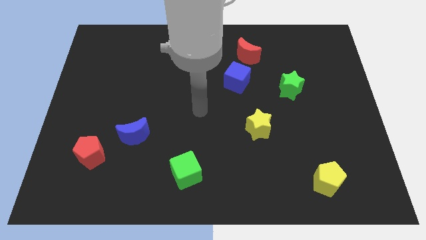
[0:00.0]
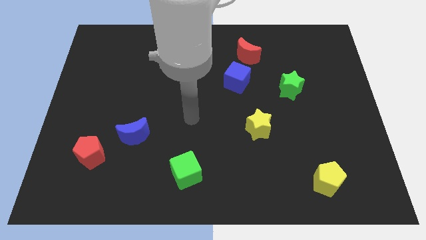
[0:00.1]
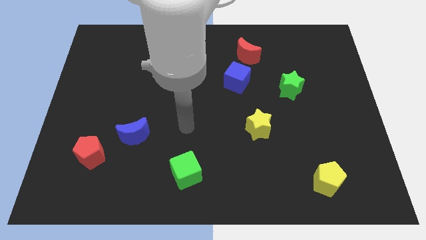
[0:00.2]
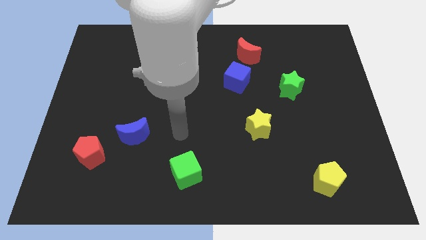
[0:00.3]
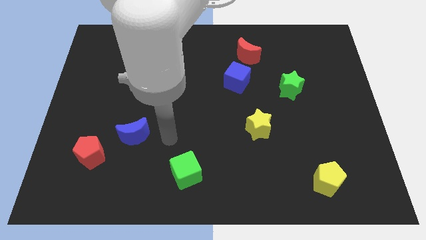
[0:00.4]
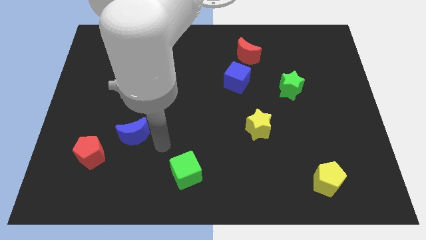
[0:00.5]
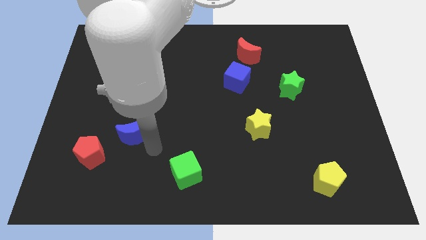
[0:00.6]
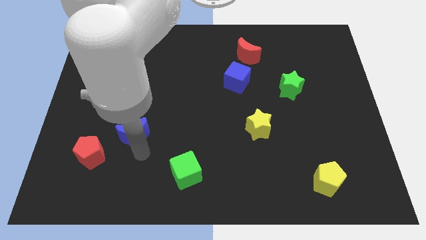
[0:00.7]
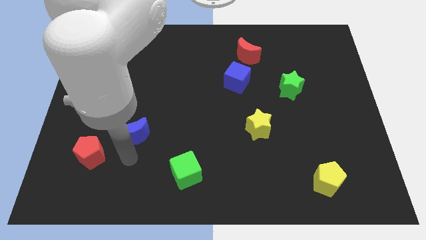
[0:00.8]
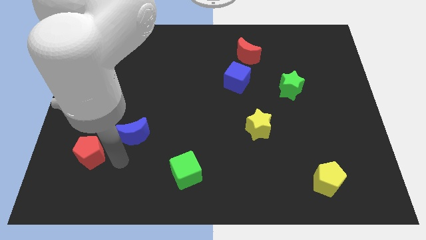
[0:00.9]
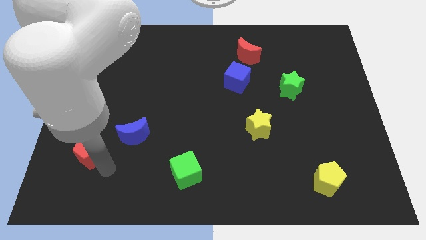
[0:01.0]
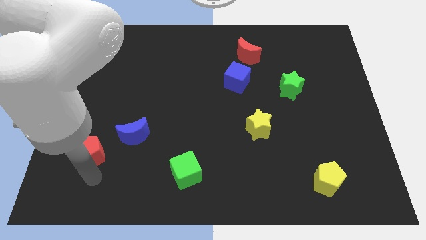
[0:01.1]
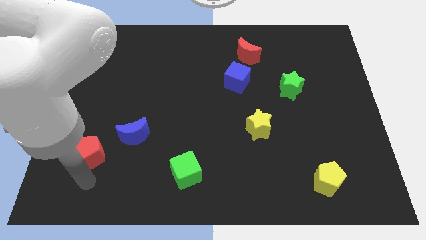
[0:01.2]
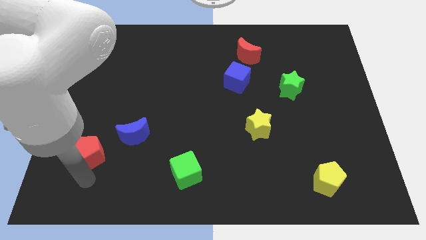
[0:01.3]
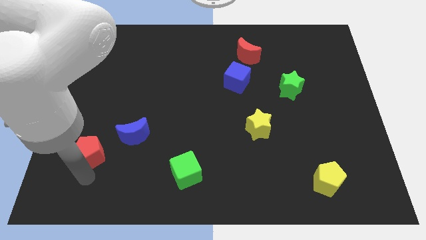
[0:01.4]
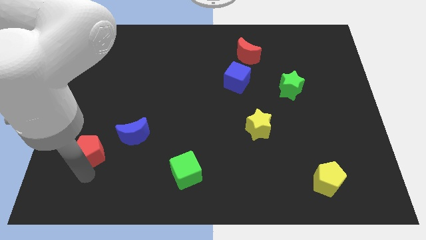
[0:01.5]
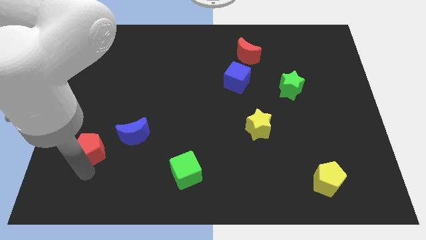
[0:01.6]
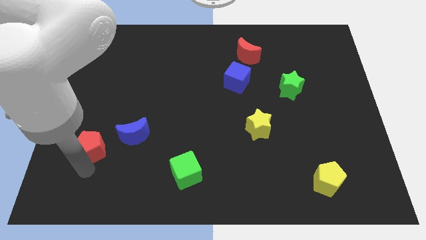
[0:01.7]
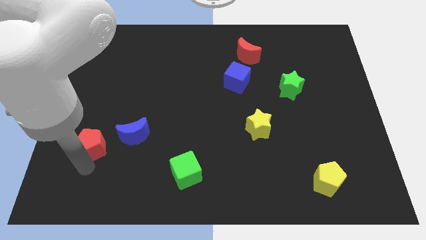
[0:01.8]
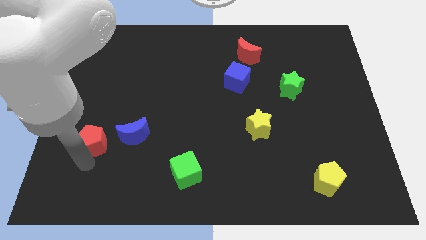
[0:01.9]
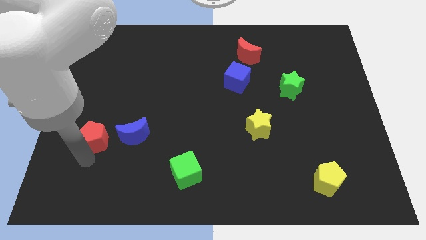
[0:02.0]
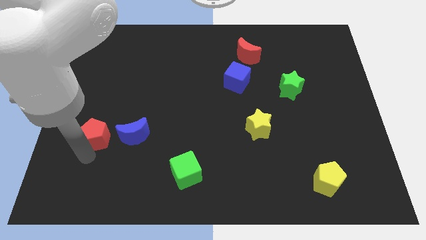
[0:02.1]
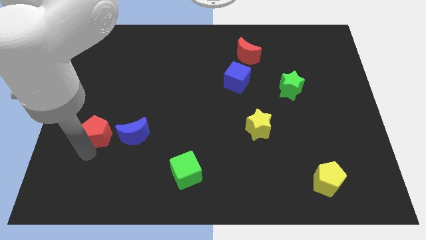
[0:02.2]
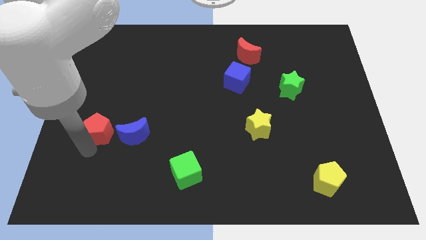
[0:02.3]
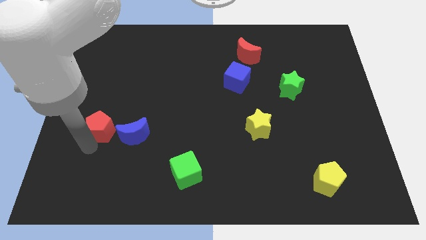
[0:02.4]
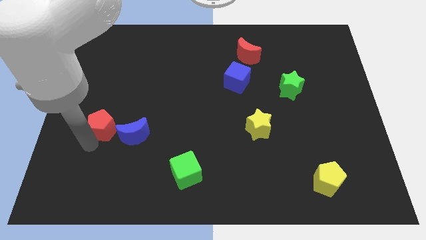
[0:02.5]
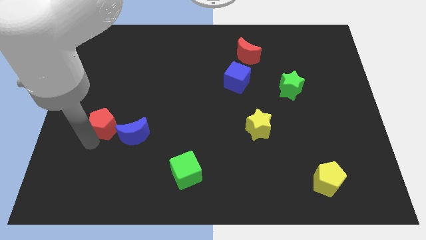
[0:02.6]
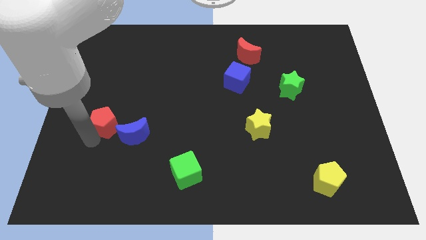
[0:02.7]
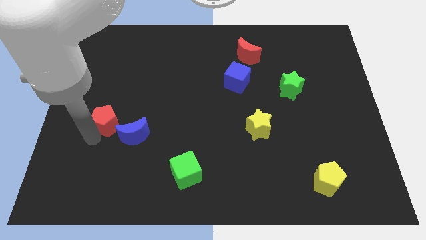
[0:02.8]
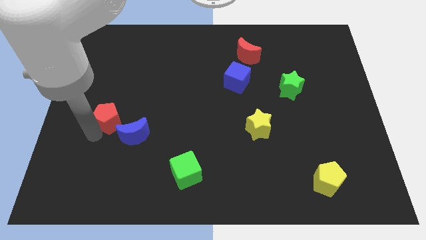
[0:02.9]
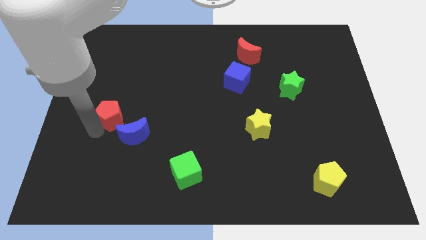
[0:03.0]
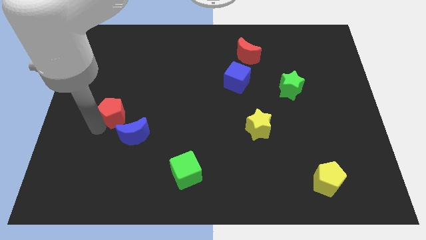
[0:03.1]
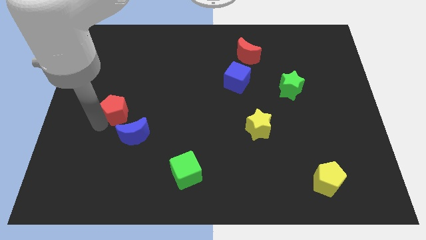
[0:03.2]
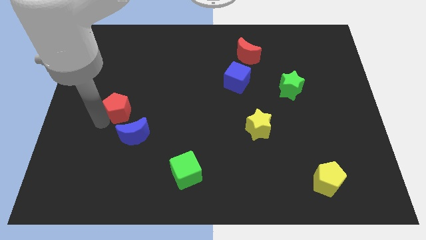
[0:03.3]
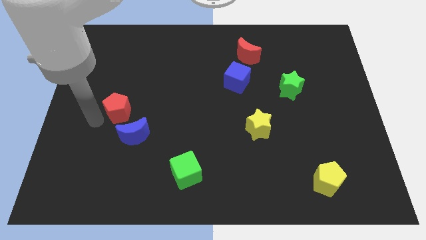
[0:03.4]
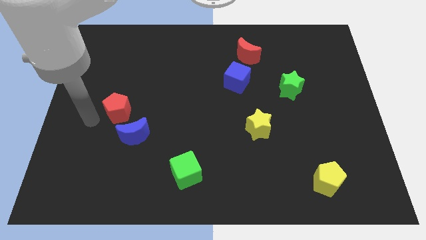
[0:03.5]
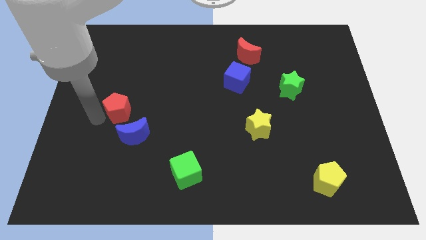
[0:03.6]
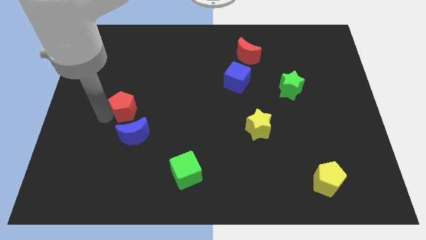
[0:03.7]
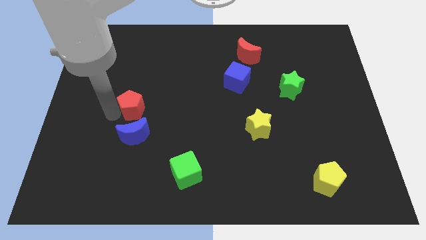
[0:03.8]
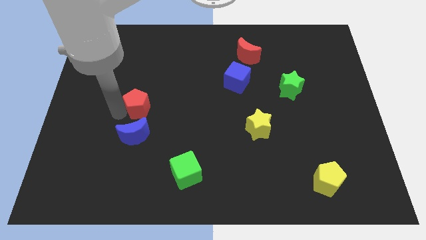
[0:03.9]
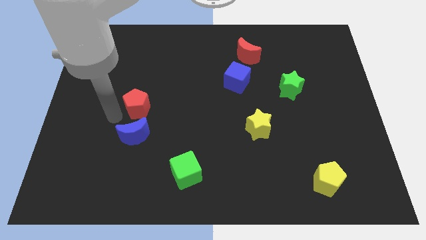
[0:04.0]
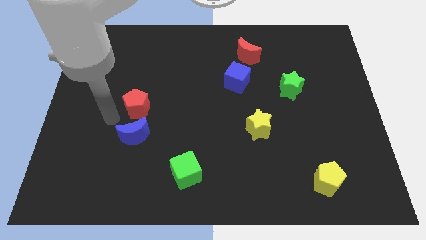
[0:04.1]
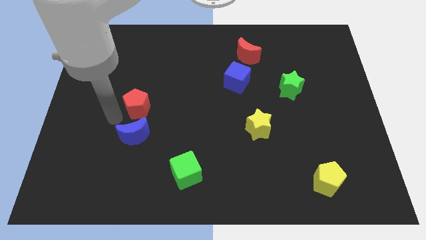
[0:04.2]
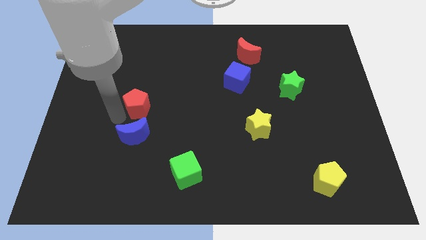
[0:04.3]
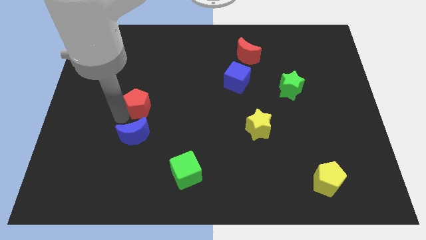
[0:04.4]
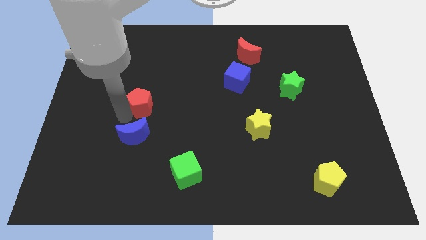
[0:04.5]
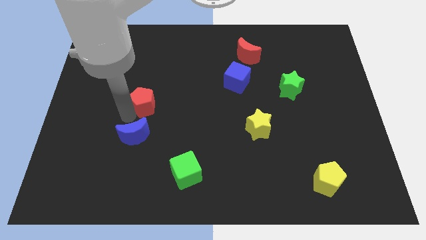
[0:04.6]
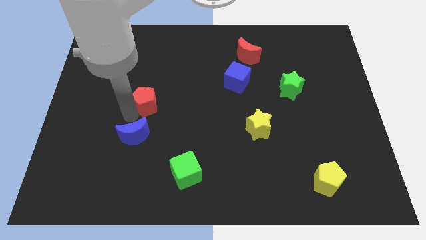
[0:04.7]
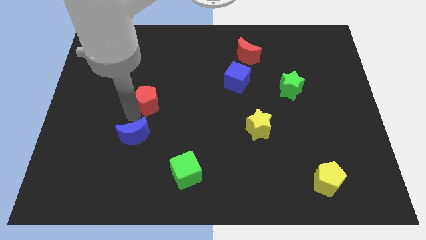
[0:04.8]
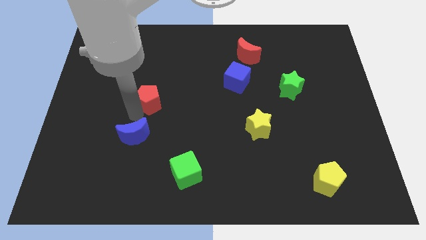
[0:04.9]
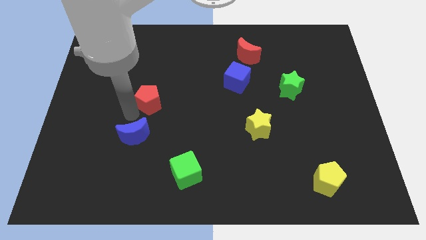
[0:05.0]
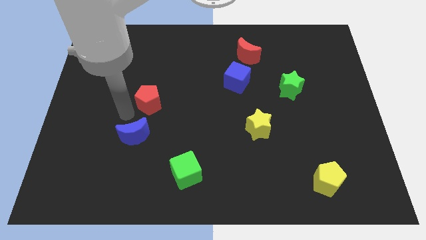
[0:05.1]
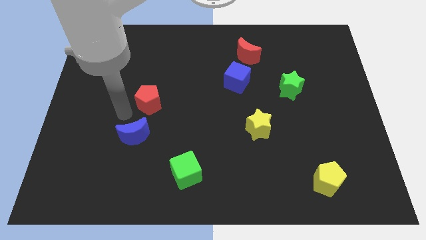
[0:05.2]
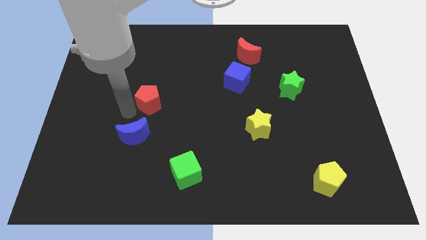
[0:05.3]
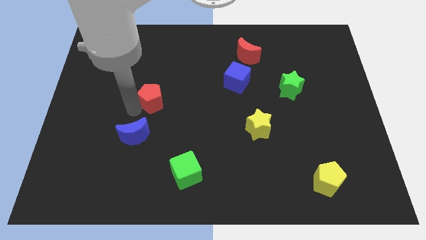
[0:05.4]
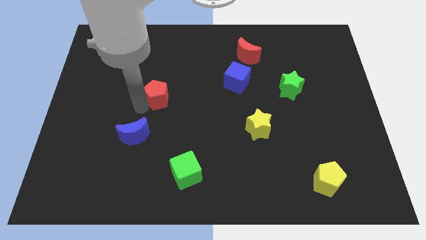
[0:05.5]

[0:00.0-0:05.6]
push the red pentagon diagonally up and to the right

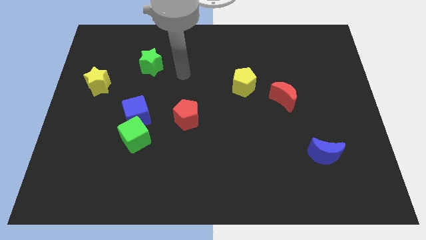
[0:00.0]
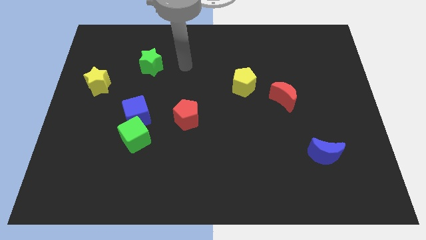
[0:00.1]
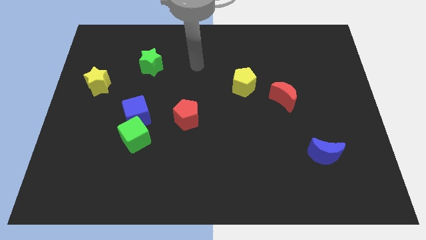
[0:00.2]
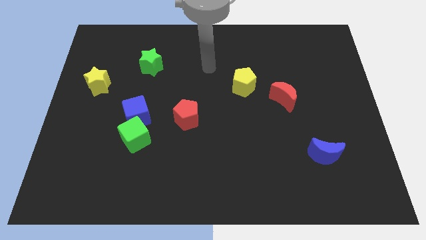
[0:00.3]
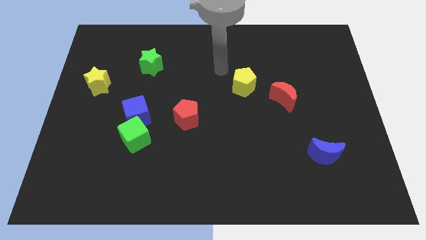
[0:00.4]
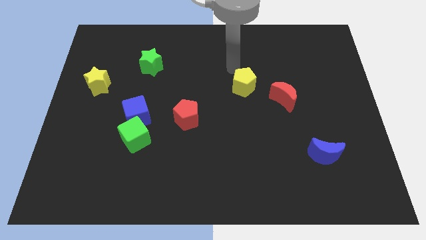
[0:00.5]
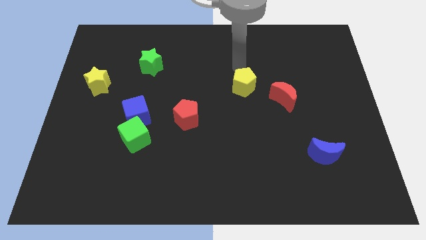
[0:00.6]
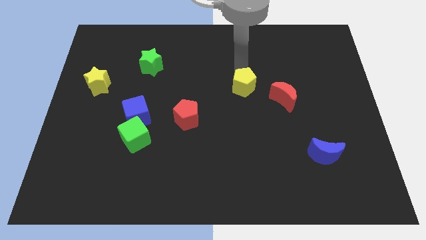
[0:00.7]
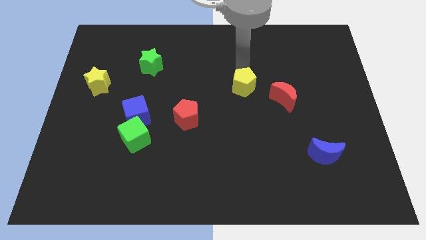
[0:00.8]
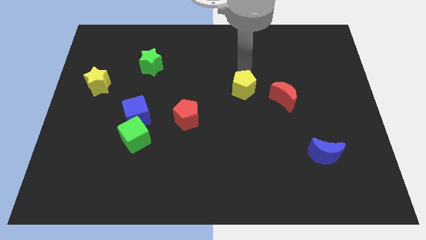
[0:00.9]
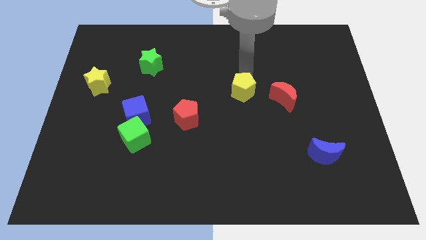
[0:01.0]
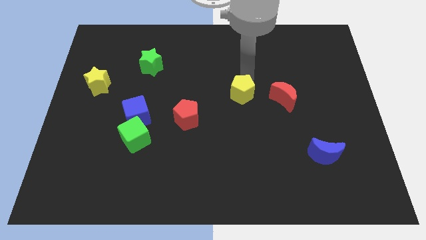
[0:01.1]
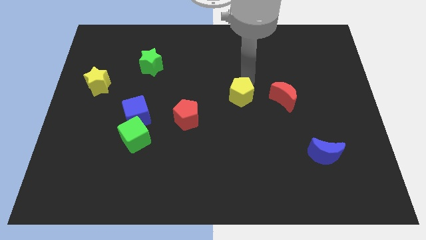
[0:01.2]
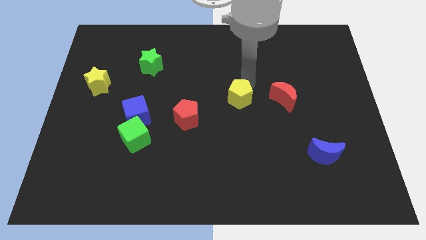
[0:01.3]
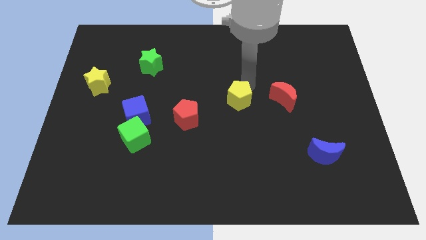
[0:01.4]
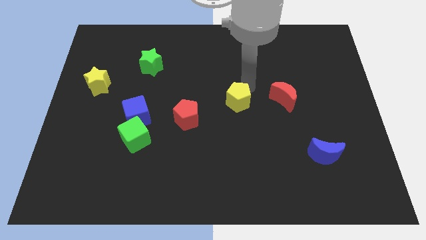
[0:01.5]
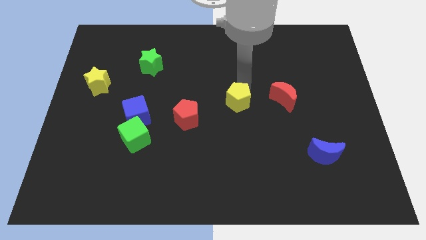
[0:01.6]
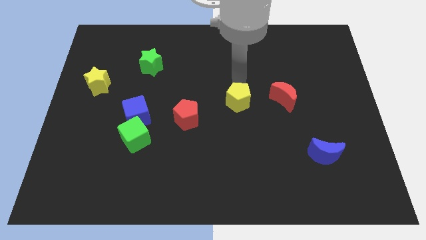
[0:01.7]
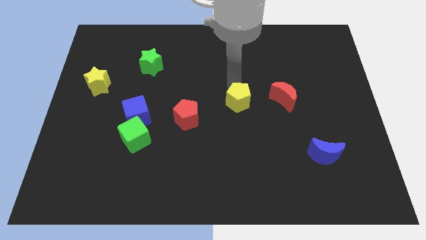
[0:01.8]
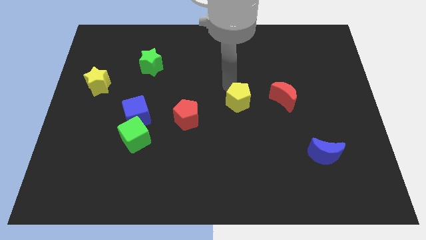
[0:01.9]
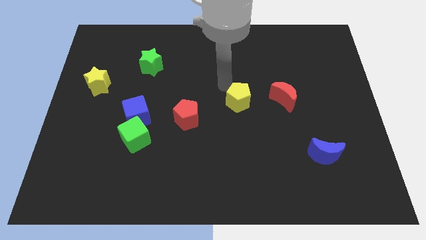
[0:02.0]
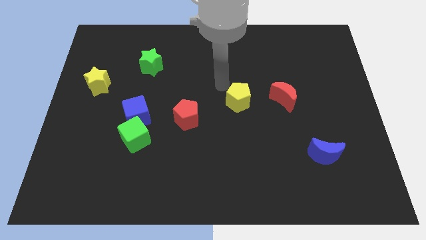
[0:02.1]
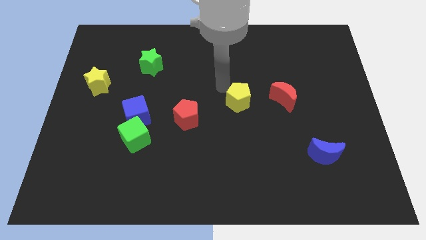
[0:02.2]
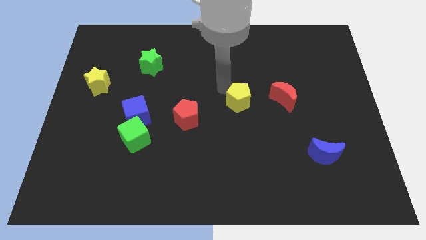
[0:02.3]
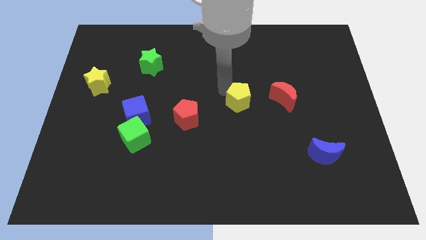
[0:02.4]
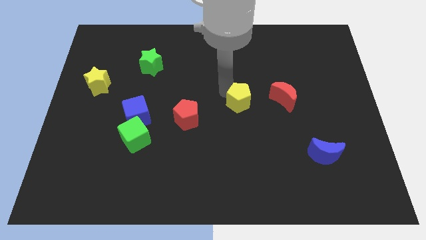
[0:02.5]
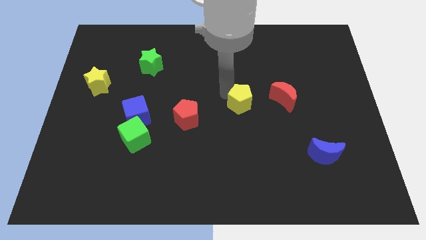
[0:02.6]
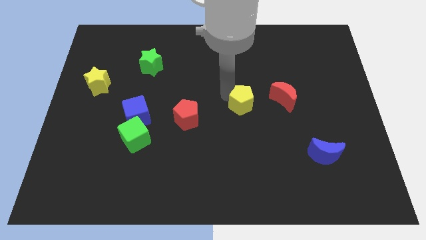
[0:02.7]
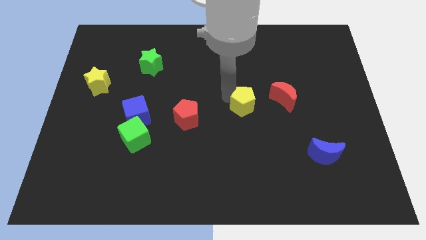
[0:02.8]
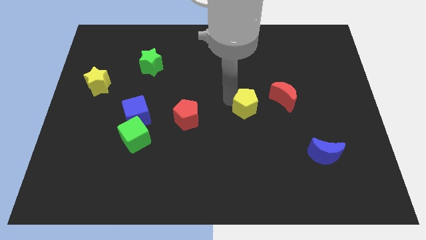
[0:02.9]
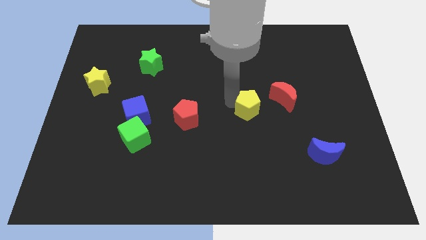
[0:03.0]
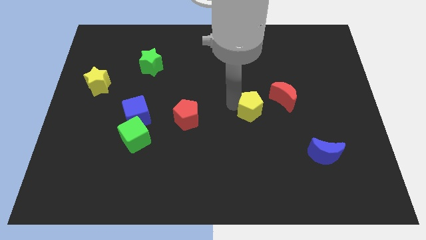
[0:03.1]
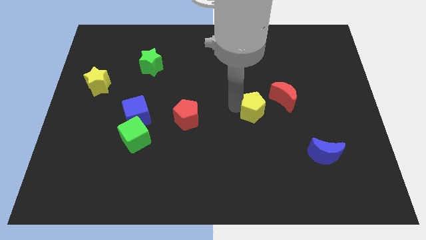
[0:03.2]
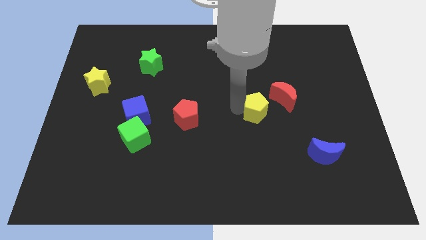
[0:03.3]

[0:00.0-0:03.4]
move the yellow pentagon downwards and to the right diagonally a little bit
